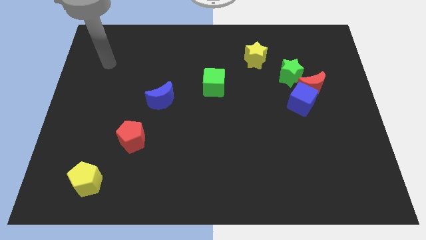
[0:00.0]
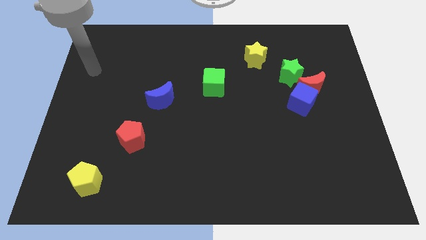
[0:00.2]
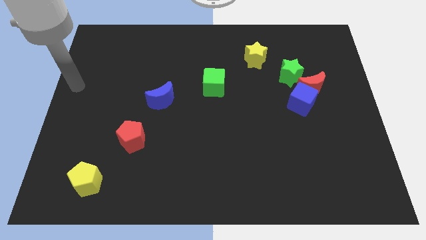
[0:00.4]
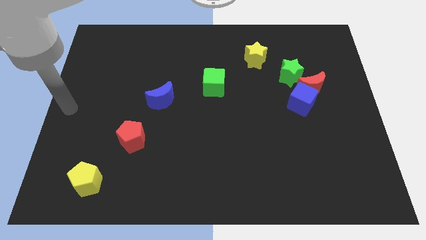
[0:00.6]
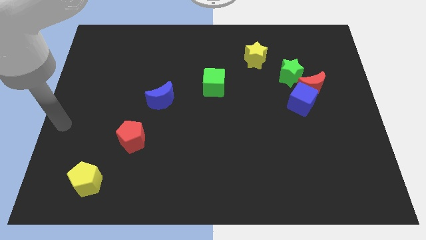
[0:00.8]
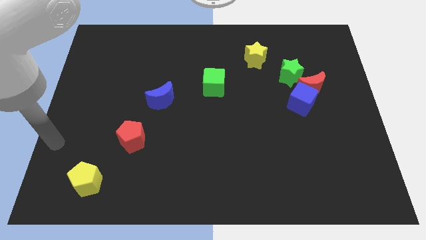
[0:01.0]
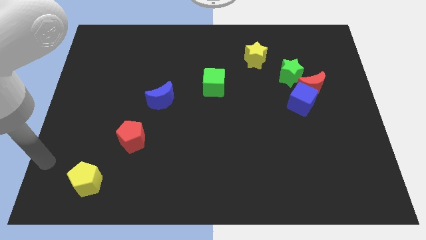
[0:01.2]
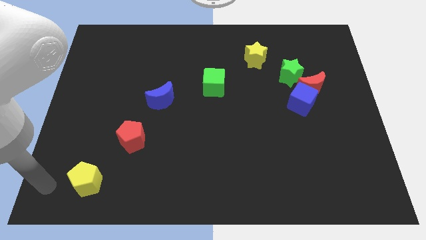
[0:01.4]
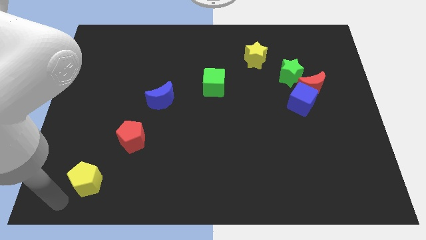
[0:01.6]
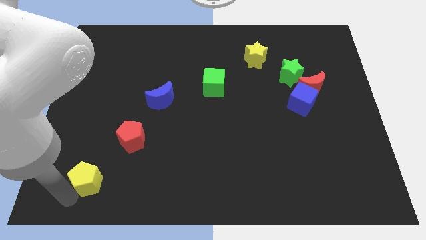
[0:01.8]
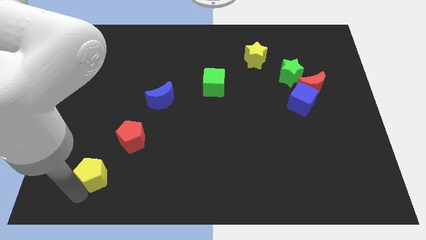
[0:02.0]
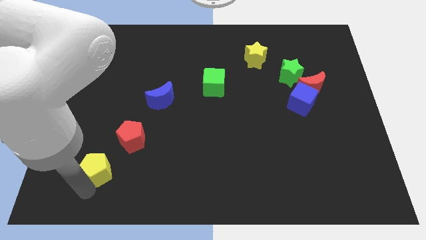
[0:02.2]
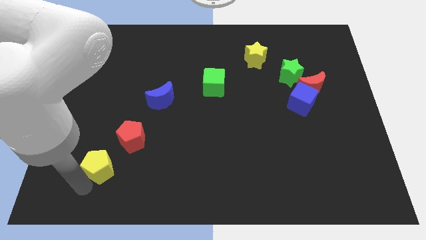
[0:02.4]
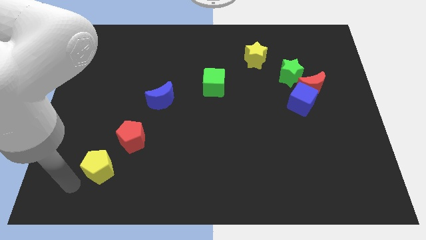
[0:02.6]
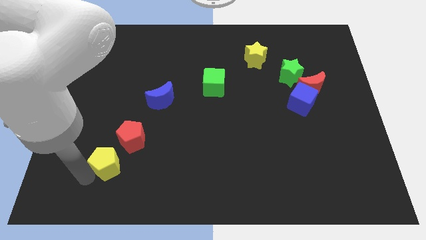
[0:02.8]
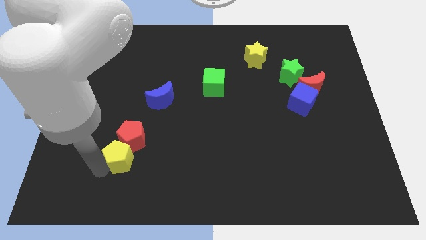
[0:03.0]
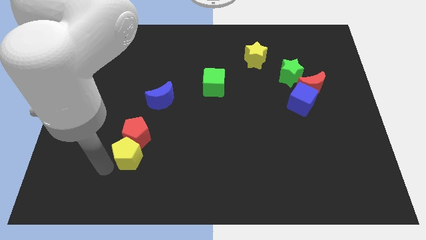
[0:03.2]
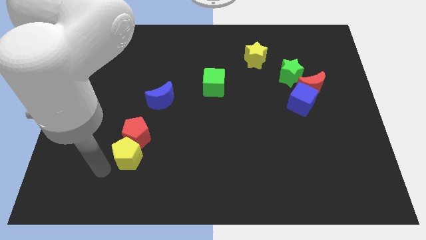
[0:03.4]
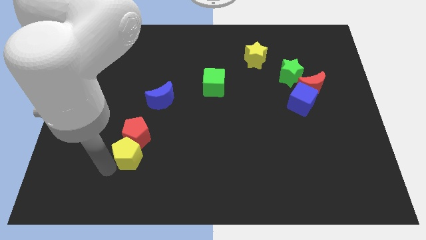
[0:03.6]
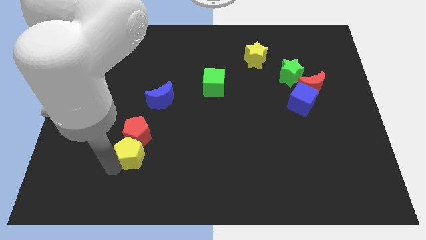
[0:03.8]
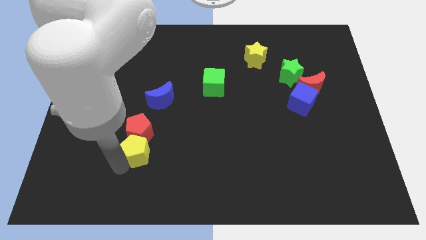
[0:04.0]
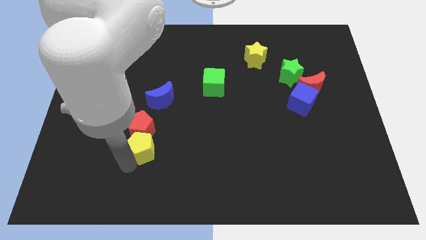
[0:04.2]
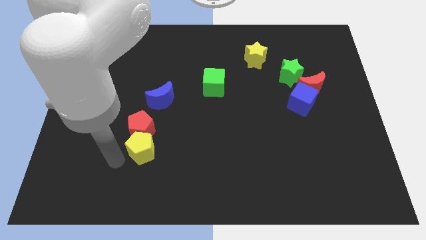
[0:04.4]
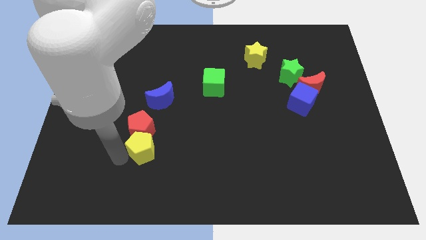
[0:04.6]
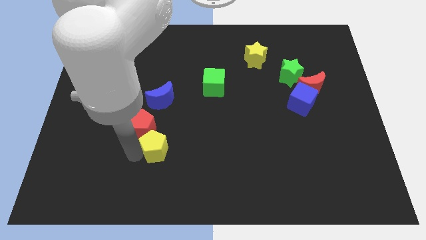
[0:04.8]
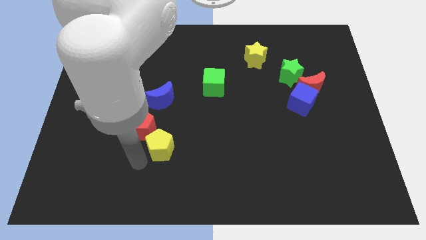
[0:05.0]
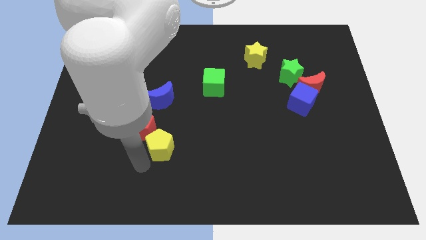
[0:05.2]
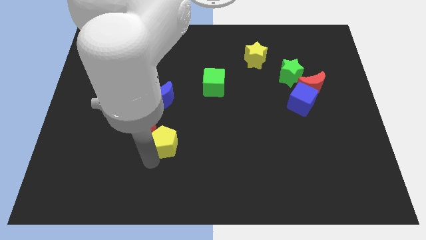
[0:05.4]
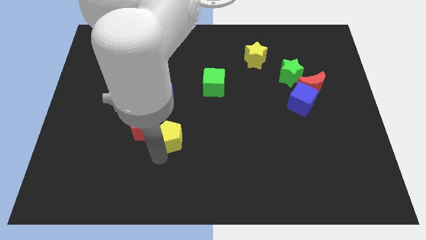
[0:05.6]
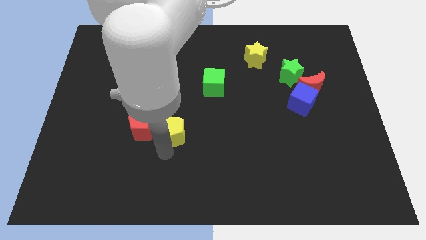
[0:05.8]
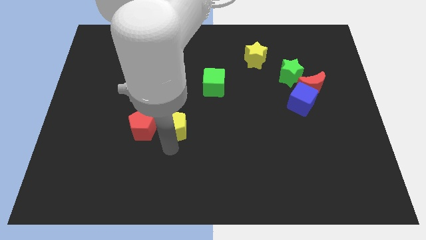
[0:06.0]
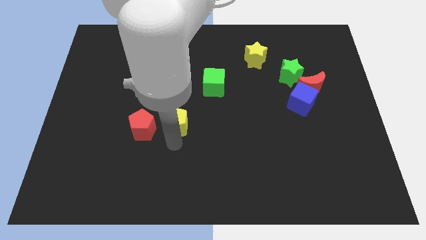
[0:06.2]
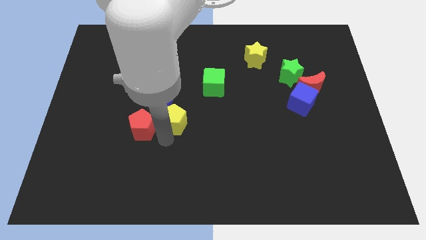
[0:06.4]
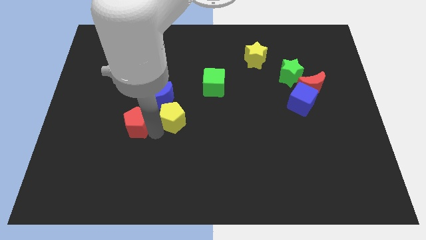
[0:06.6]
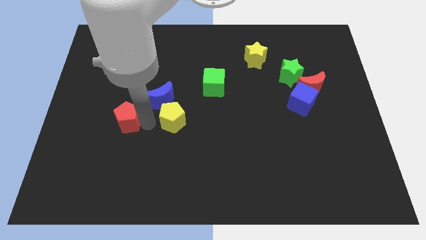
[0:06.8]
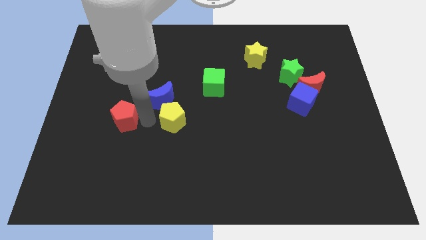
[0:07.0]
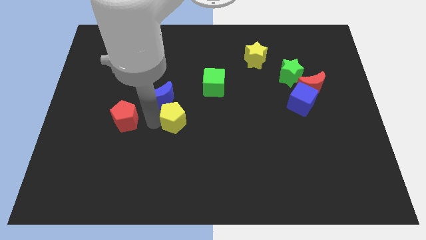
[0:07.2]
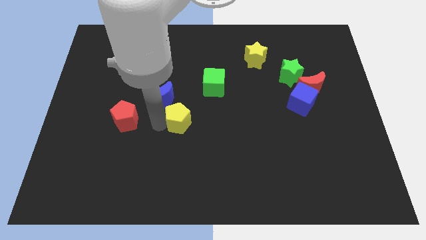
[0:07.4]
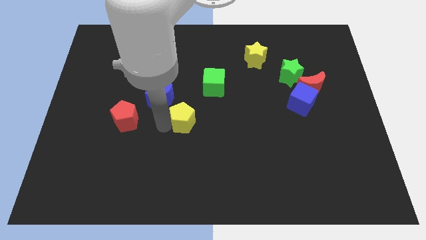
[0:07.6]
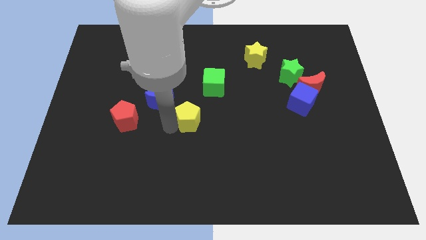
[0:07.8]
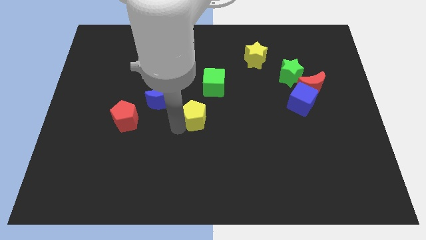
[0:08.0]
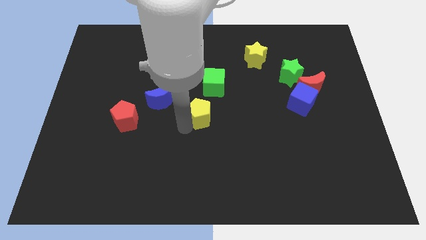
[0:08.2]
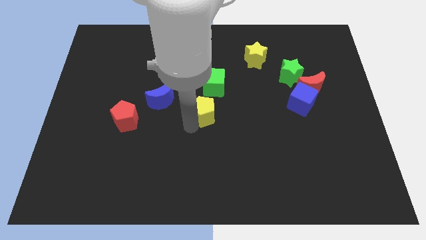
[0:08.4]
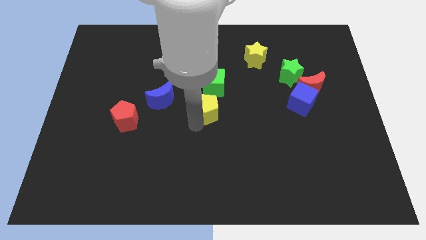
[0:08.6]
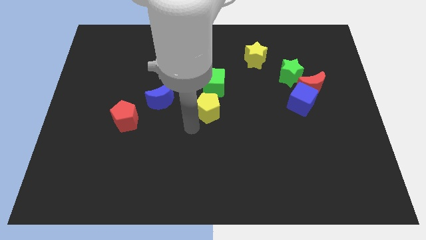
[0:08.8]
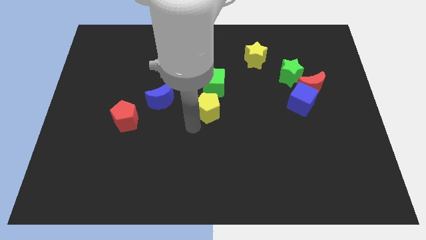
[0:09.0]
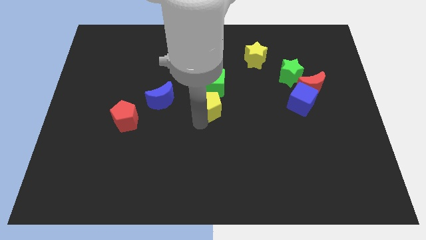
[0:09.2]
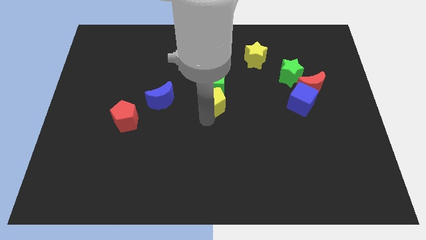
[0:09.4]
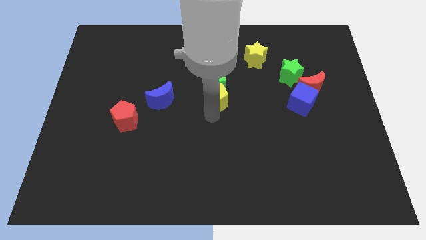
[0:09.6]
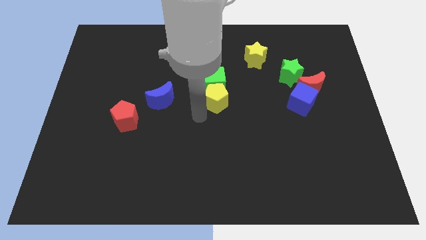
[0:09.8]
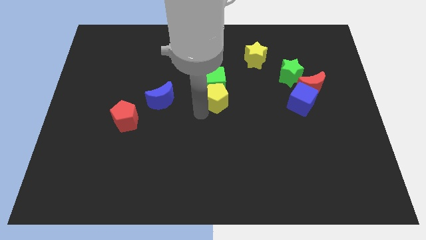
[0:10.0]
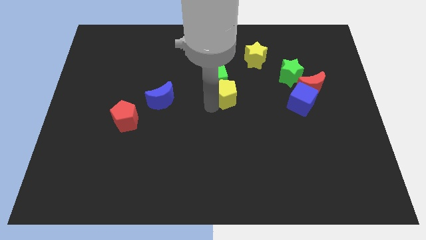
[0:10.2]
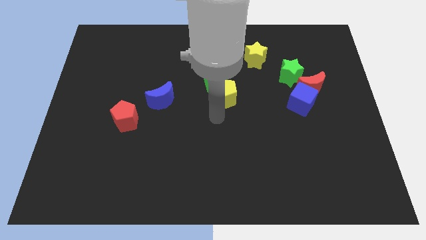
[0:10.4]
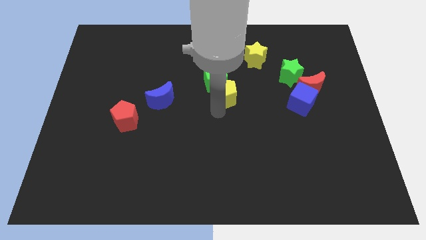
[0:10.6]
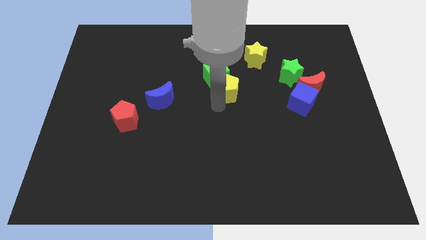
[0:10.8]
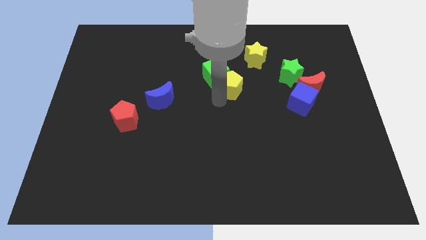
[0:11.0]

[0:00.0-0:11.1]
push the yellow pentagon diagonally down and to the left of the yellow star

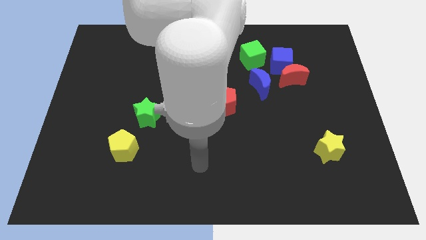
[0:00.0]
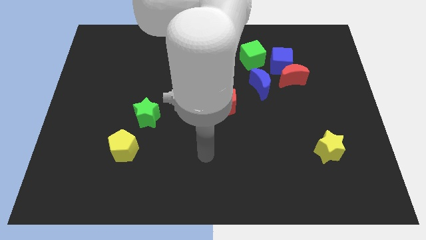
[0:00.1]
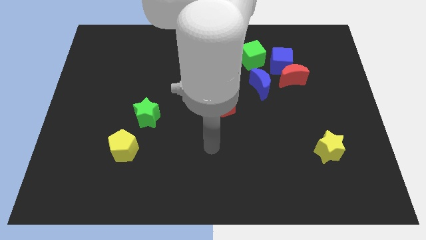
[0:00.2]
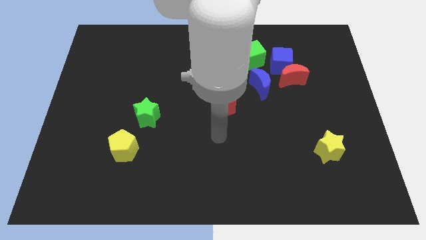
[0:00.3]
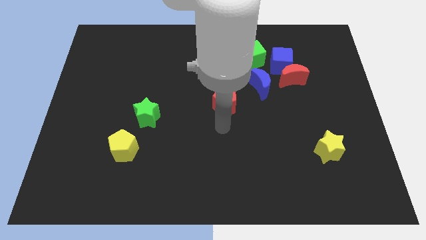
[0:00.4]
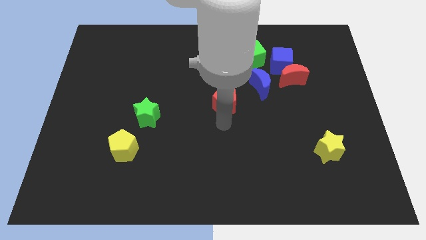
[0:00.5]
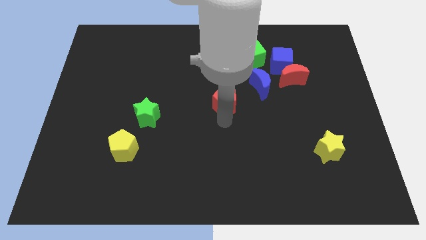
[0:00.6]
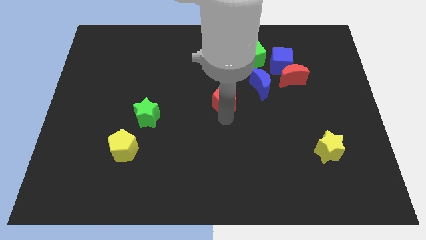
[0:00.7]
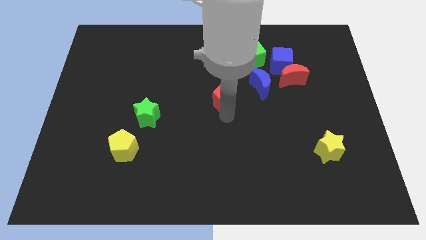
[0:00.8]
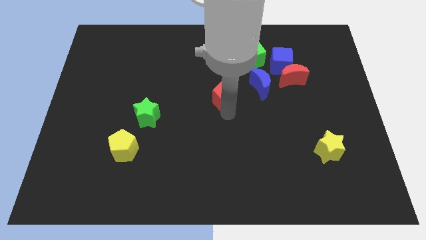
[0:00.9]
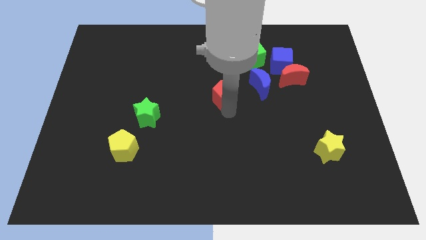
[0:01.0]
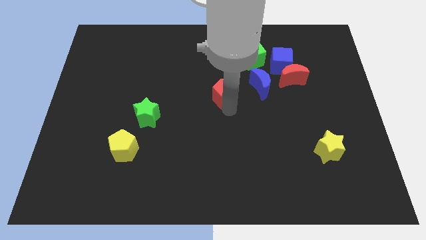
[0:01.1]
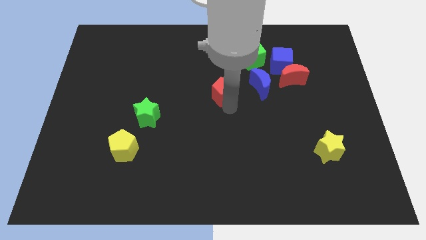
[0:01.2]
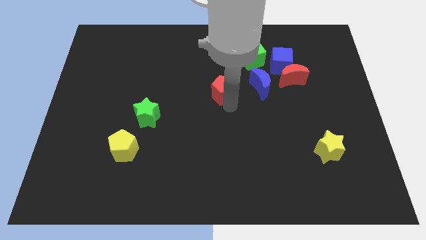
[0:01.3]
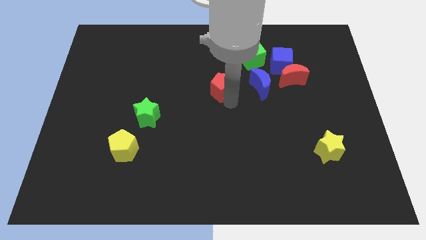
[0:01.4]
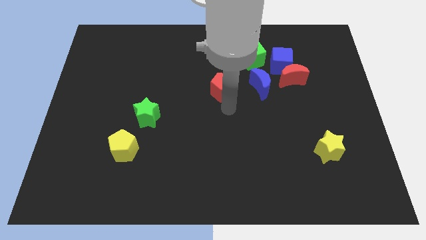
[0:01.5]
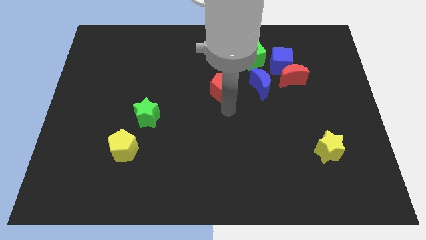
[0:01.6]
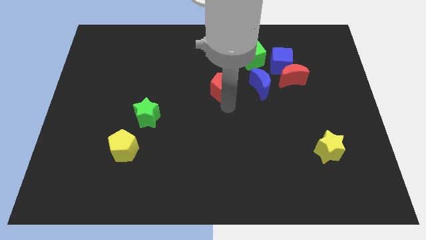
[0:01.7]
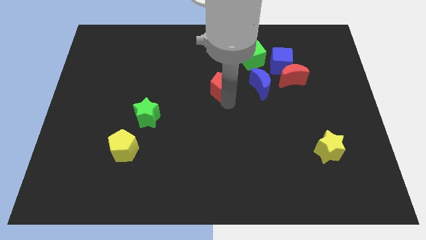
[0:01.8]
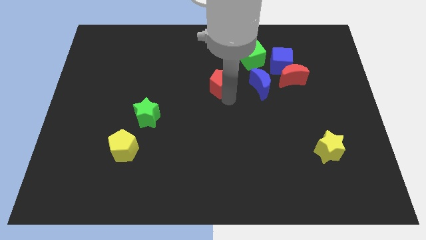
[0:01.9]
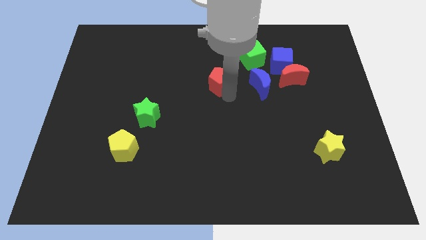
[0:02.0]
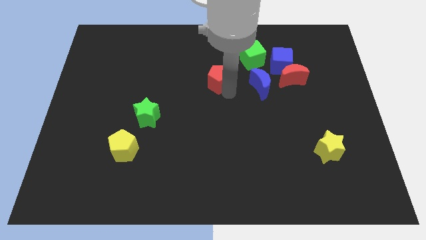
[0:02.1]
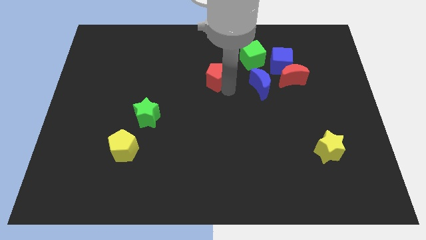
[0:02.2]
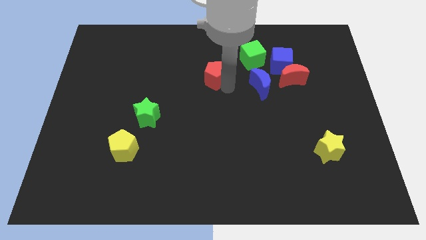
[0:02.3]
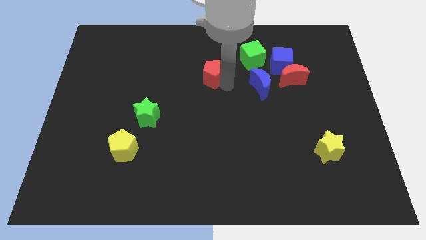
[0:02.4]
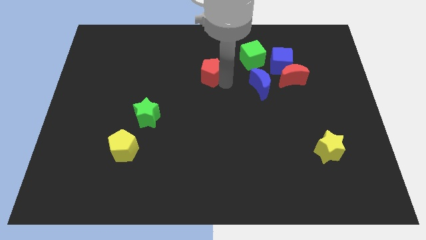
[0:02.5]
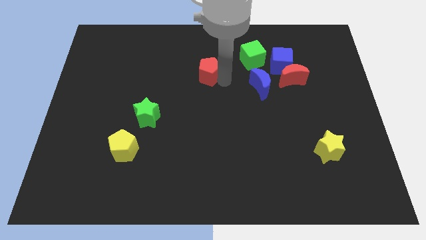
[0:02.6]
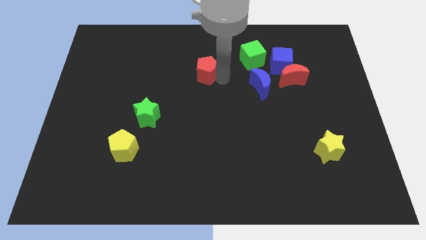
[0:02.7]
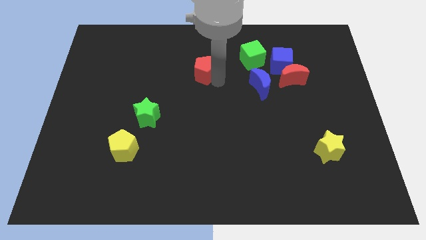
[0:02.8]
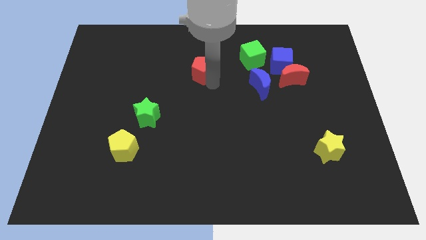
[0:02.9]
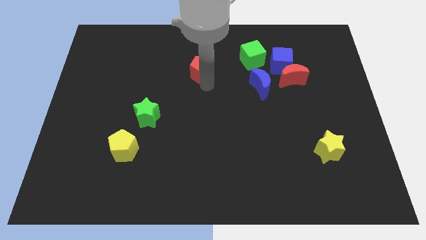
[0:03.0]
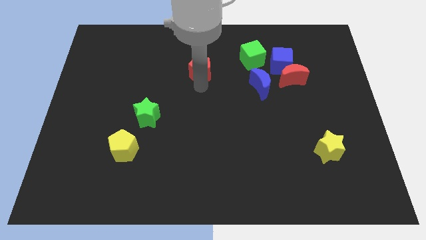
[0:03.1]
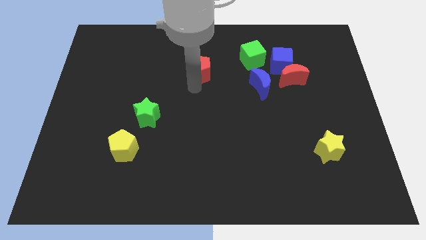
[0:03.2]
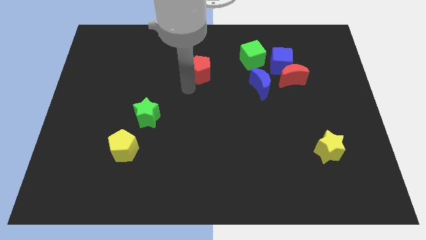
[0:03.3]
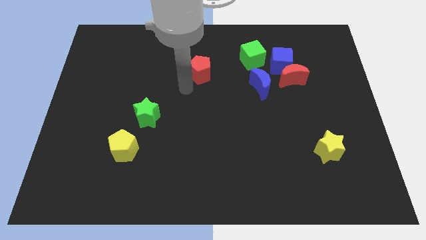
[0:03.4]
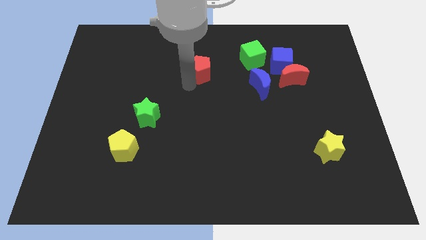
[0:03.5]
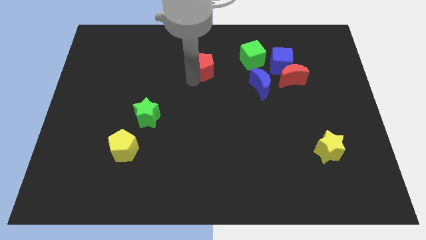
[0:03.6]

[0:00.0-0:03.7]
move the red pentagon just left of the green cube
